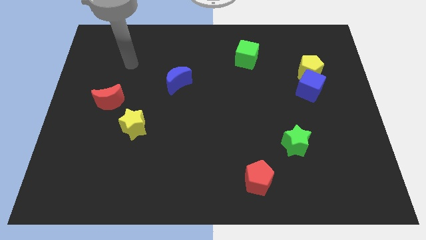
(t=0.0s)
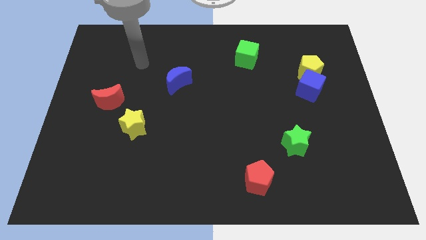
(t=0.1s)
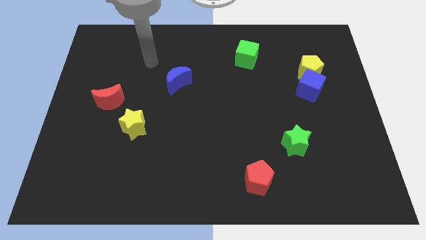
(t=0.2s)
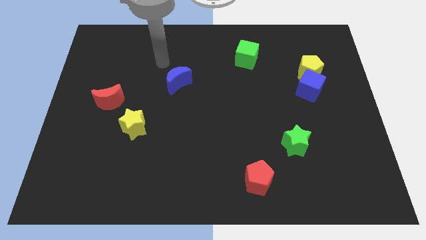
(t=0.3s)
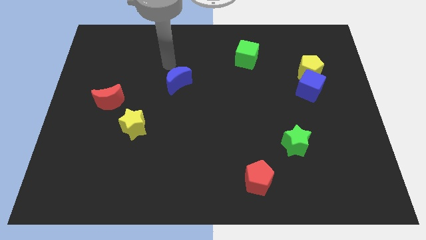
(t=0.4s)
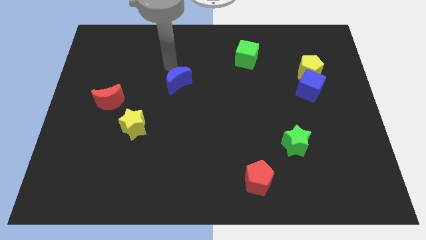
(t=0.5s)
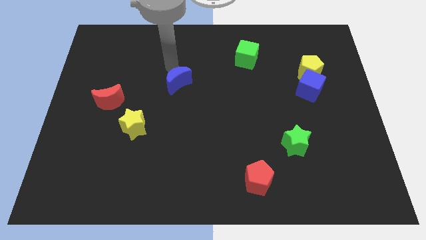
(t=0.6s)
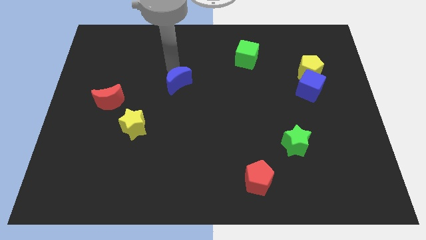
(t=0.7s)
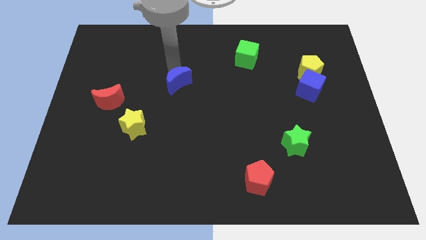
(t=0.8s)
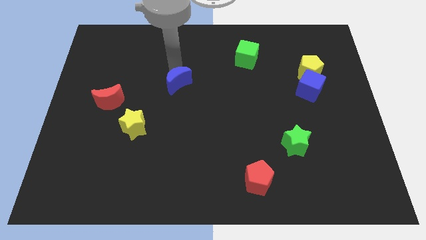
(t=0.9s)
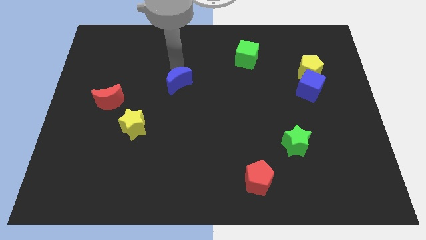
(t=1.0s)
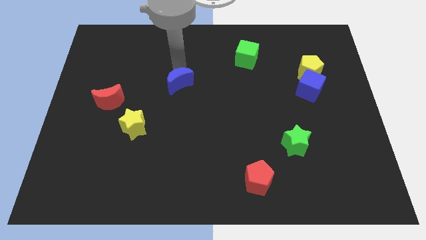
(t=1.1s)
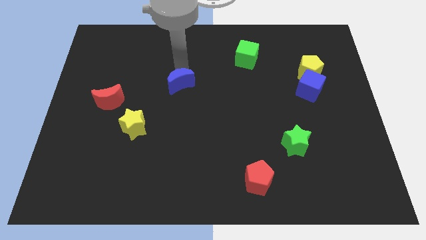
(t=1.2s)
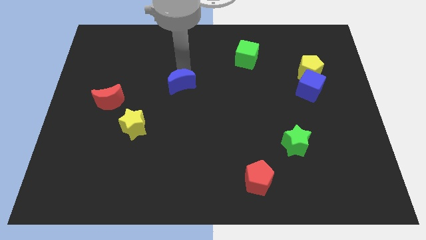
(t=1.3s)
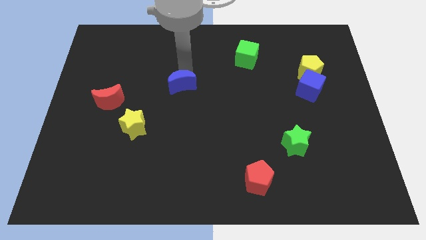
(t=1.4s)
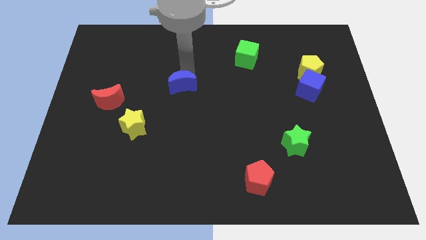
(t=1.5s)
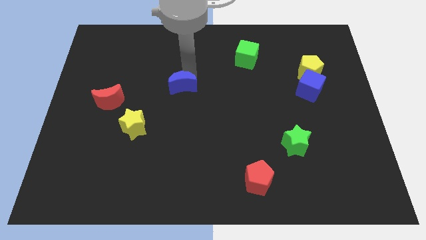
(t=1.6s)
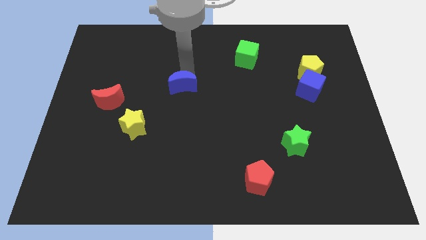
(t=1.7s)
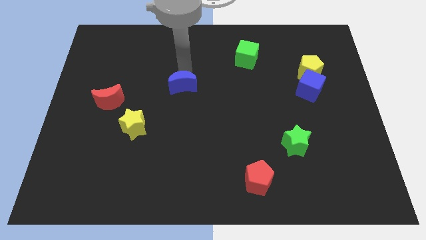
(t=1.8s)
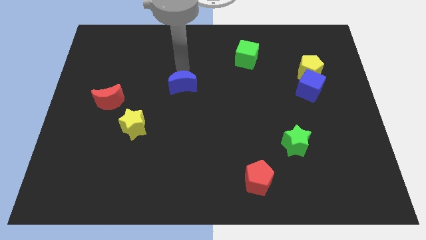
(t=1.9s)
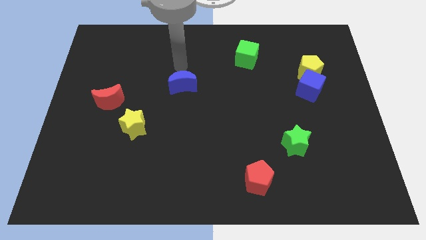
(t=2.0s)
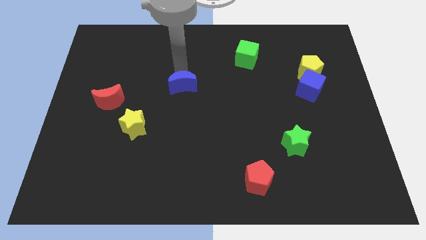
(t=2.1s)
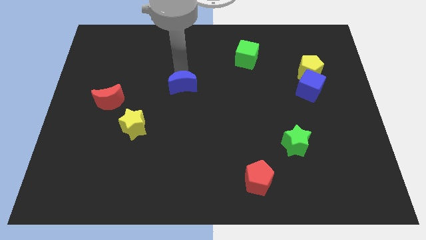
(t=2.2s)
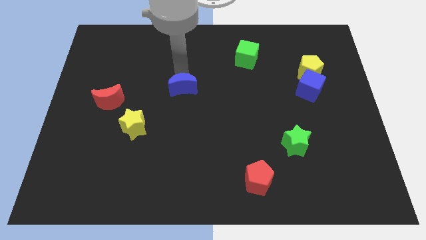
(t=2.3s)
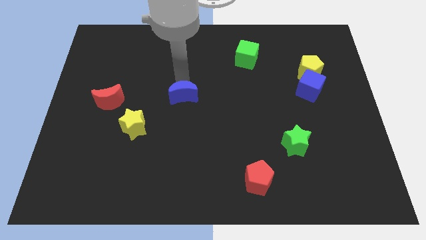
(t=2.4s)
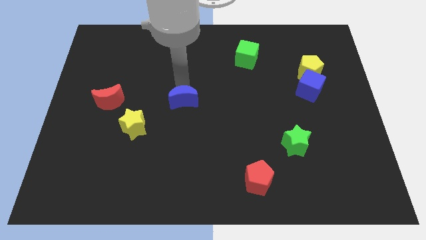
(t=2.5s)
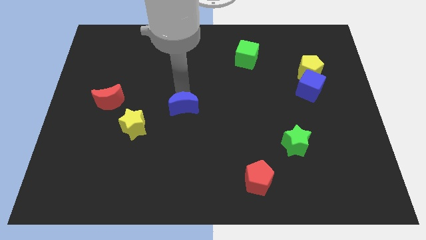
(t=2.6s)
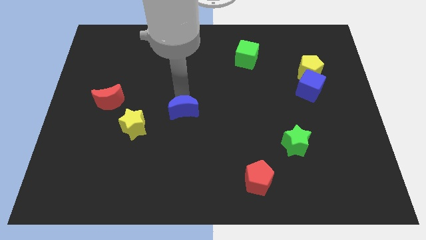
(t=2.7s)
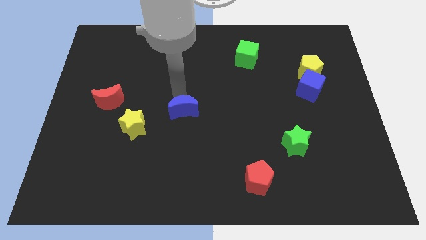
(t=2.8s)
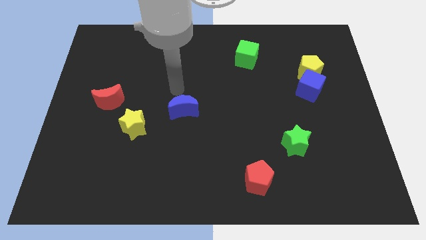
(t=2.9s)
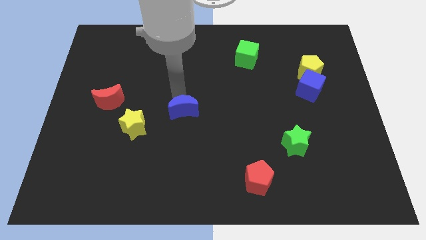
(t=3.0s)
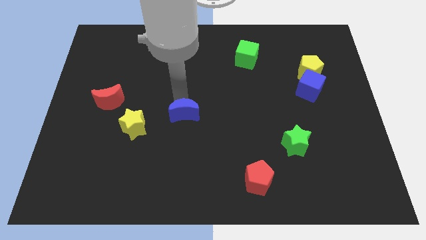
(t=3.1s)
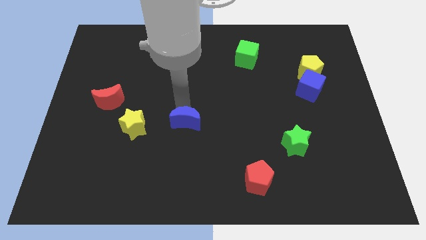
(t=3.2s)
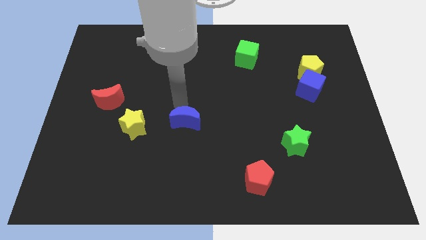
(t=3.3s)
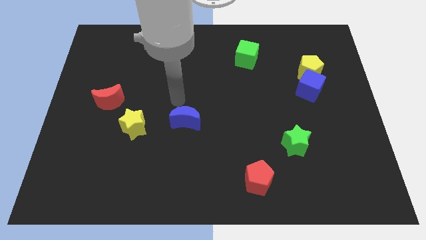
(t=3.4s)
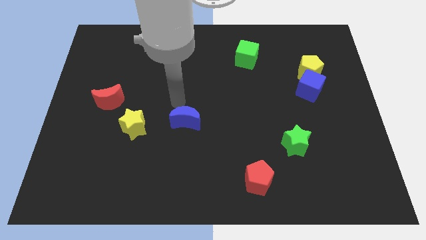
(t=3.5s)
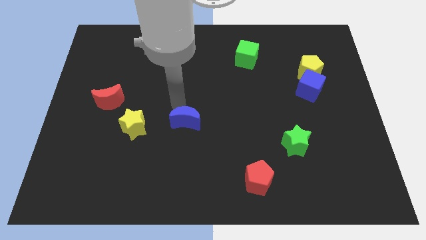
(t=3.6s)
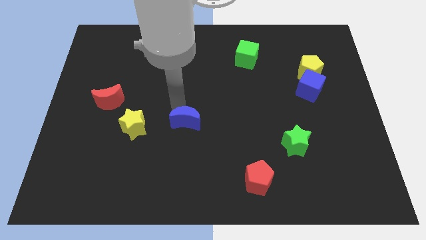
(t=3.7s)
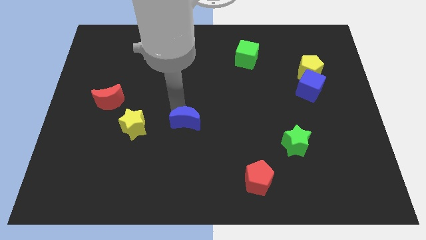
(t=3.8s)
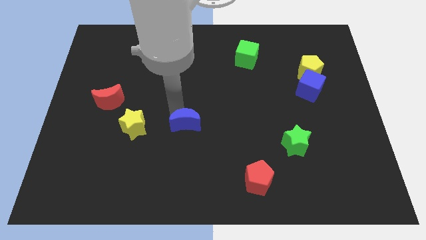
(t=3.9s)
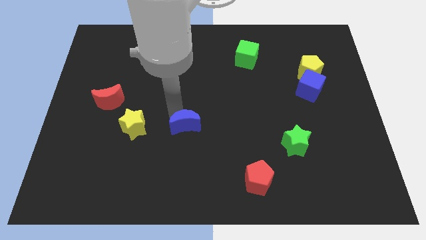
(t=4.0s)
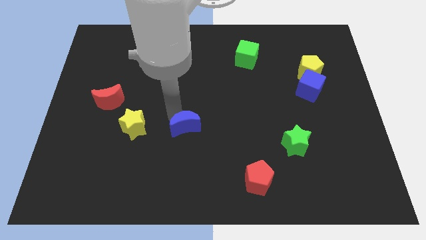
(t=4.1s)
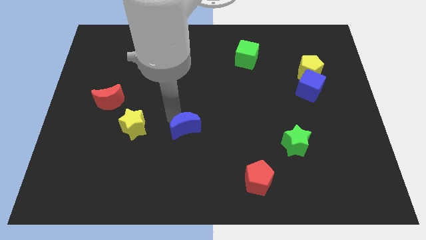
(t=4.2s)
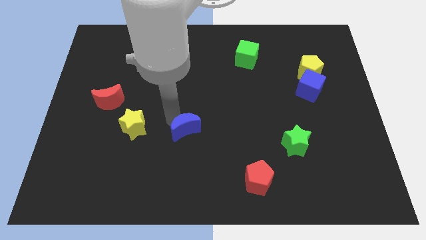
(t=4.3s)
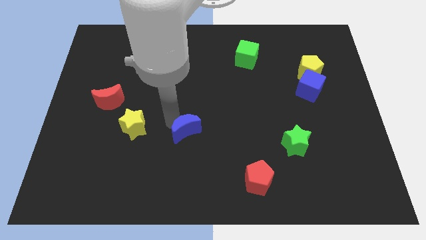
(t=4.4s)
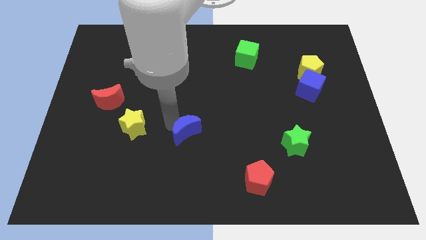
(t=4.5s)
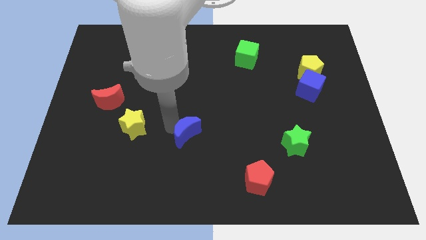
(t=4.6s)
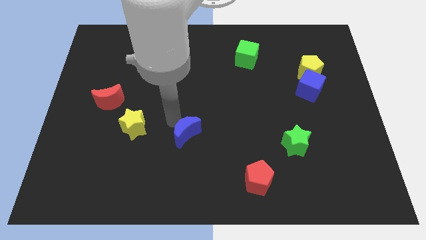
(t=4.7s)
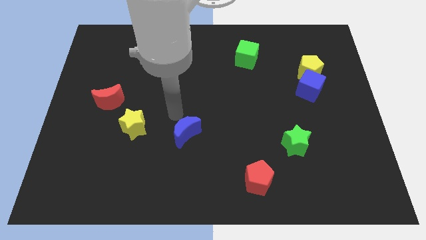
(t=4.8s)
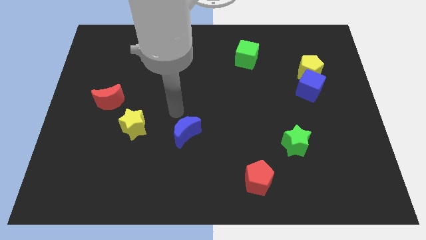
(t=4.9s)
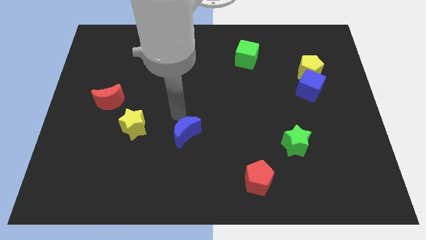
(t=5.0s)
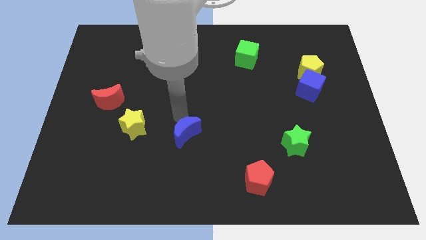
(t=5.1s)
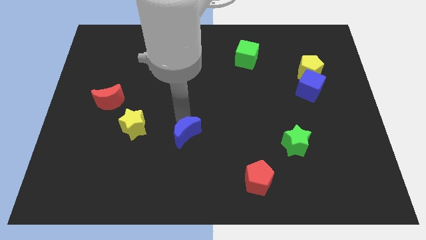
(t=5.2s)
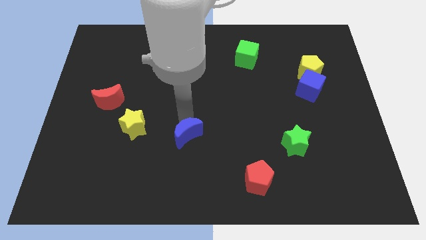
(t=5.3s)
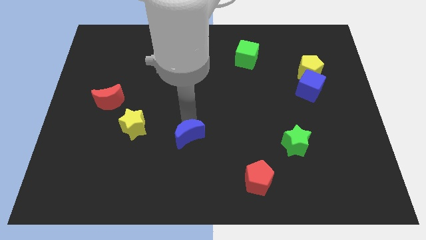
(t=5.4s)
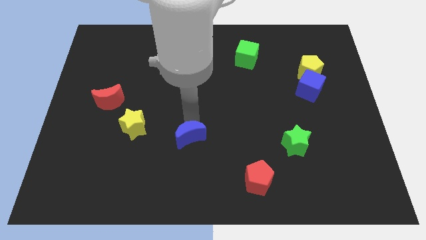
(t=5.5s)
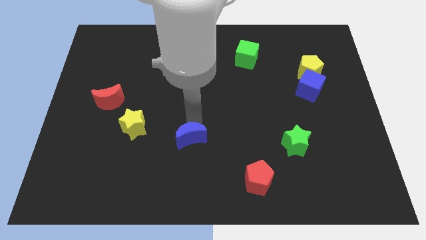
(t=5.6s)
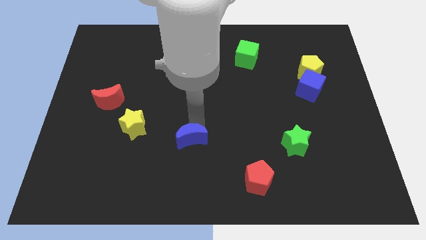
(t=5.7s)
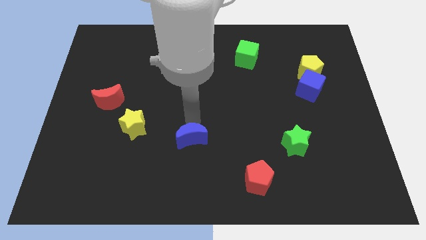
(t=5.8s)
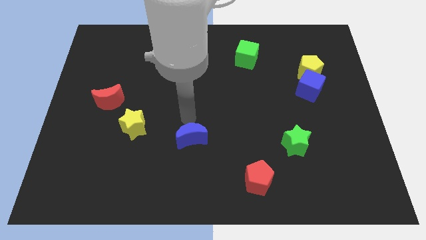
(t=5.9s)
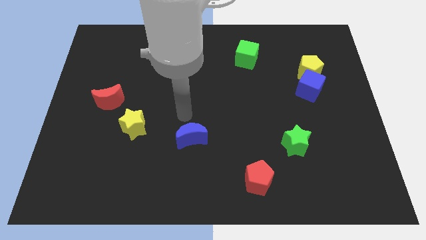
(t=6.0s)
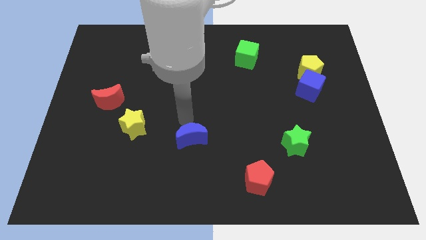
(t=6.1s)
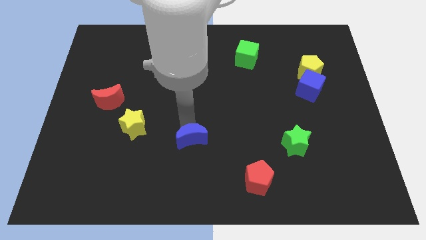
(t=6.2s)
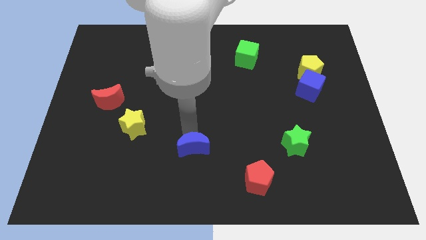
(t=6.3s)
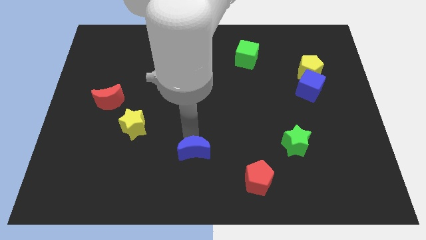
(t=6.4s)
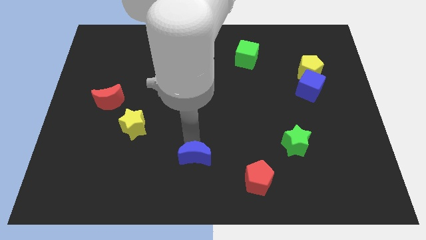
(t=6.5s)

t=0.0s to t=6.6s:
push the blue moon to the bottom
